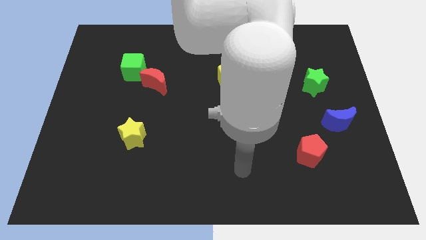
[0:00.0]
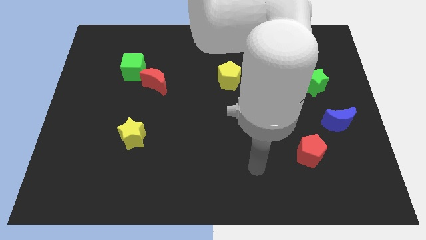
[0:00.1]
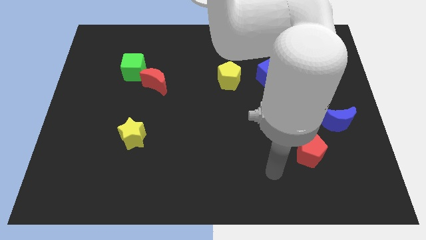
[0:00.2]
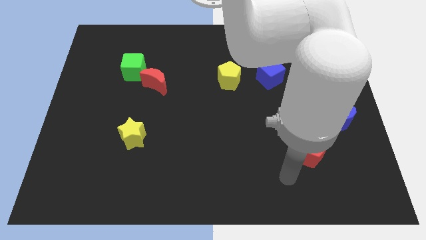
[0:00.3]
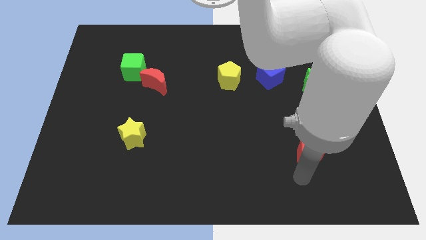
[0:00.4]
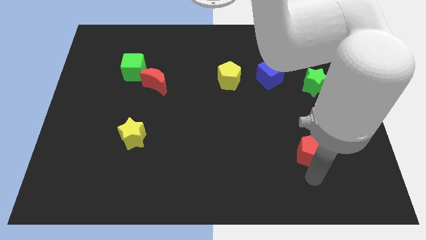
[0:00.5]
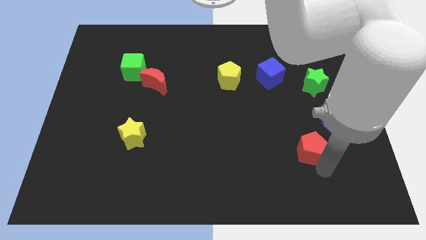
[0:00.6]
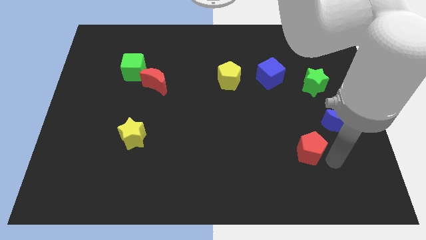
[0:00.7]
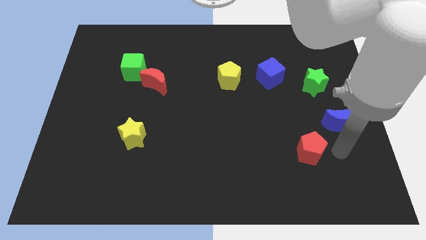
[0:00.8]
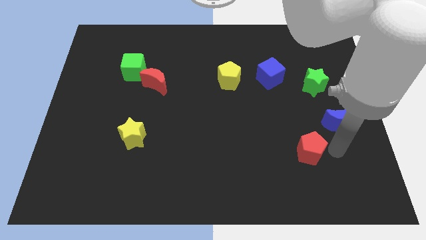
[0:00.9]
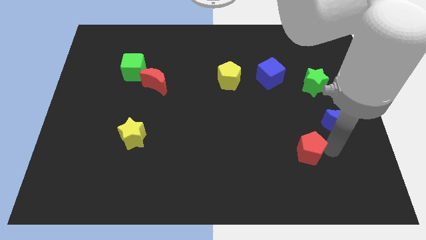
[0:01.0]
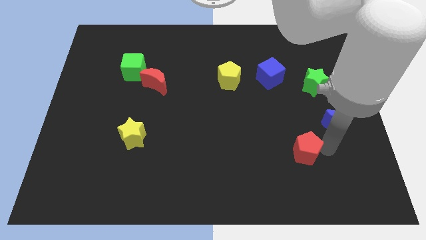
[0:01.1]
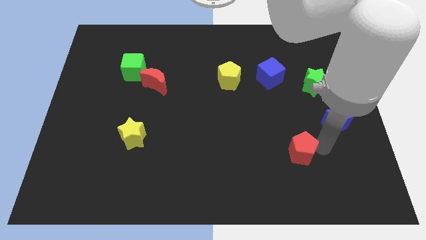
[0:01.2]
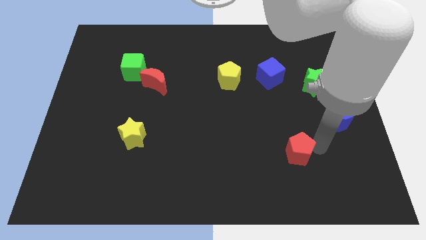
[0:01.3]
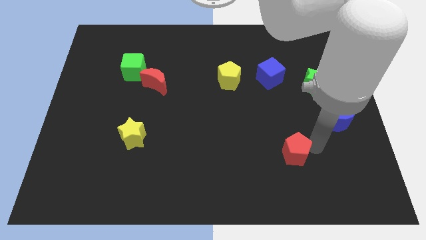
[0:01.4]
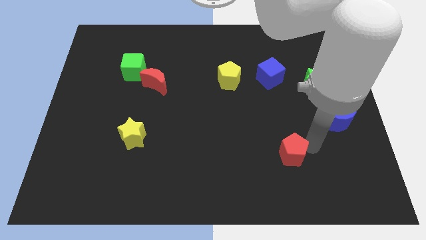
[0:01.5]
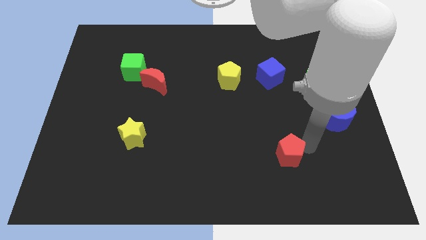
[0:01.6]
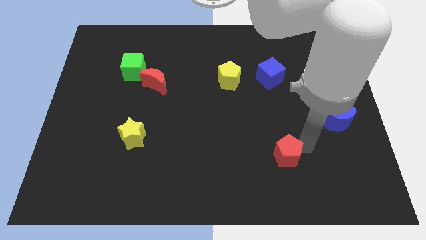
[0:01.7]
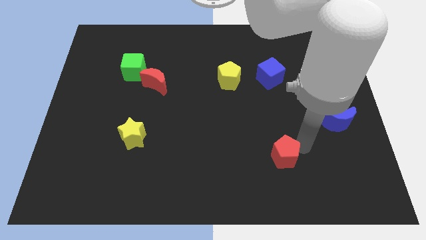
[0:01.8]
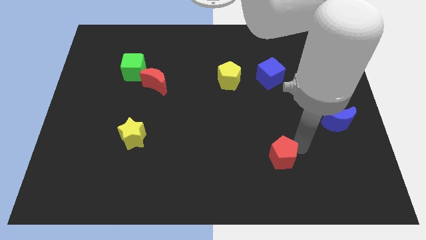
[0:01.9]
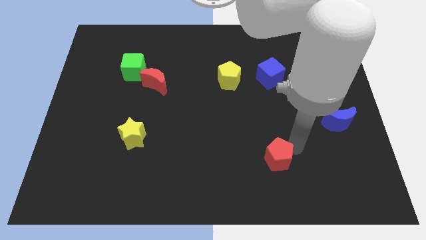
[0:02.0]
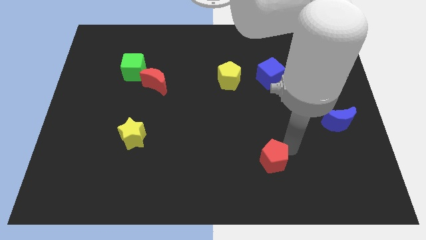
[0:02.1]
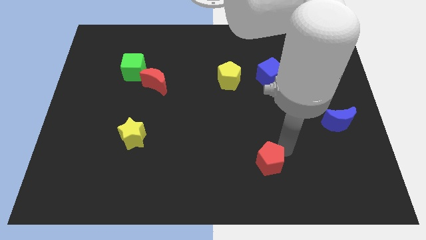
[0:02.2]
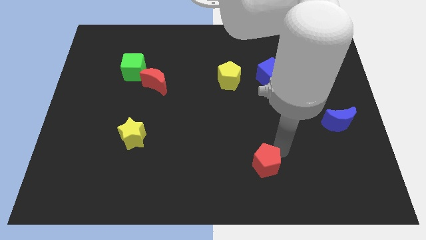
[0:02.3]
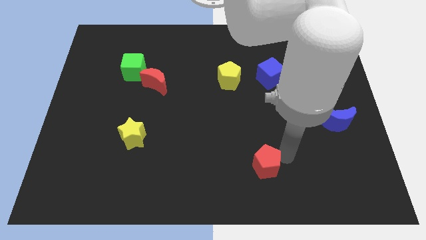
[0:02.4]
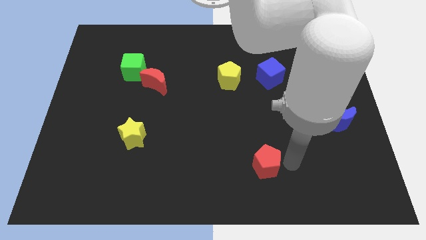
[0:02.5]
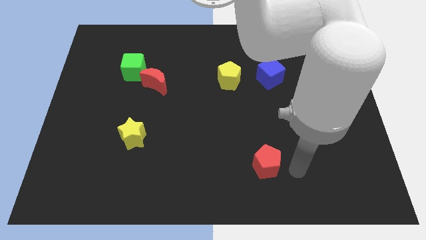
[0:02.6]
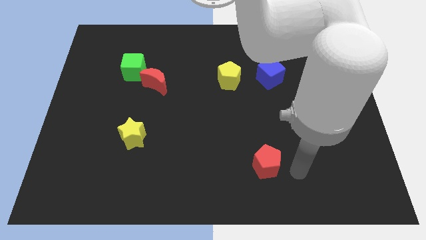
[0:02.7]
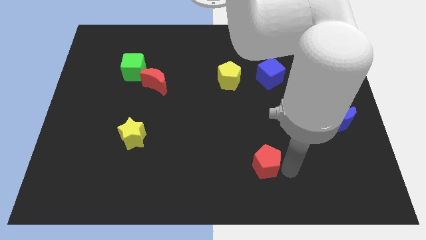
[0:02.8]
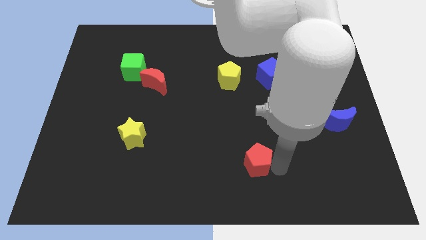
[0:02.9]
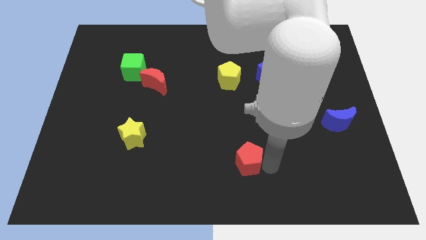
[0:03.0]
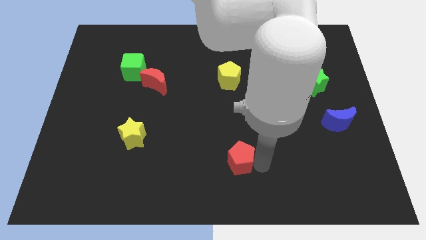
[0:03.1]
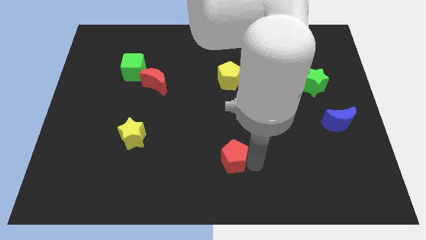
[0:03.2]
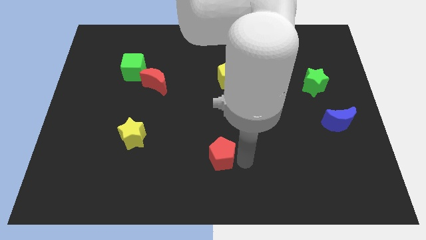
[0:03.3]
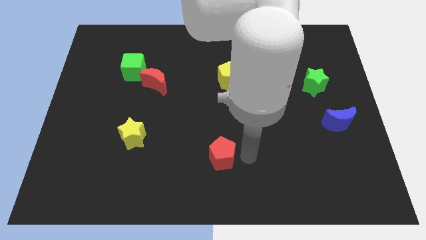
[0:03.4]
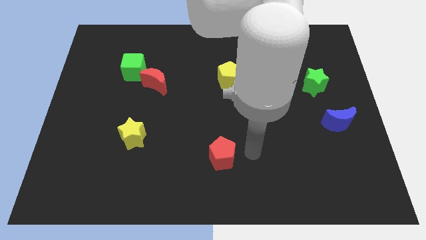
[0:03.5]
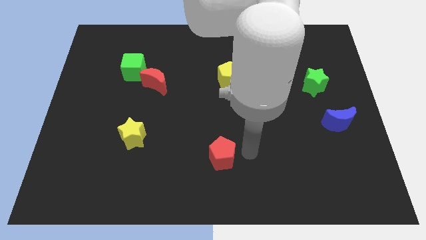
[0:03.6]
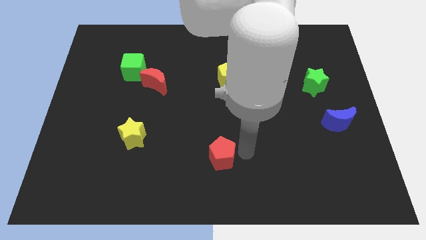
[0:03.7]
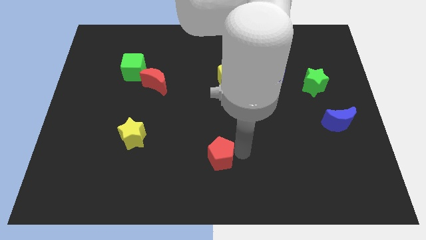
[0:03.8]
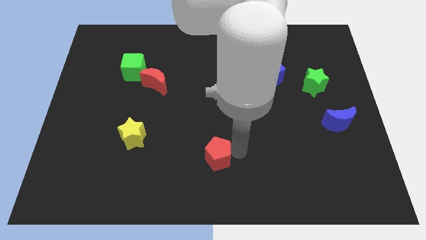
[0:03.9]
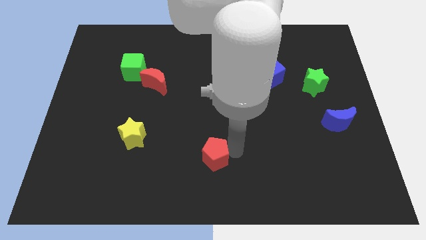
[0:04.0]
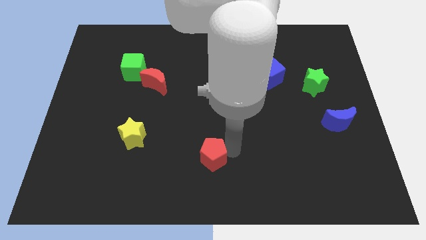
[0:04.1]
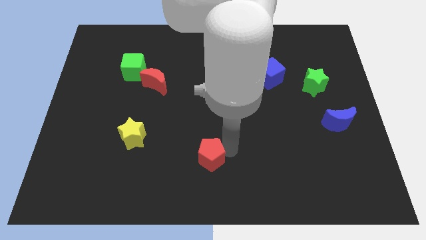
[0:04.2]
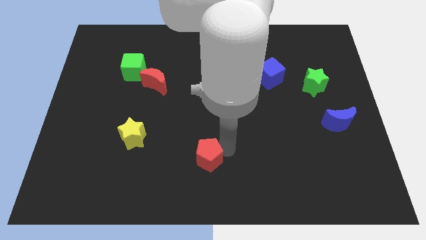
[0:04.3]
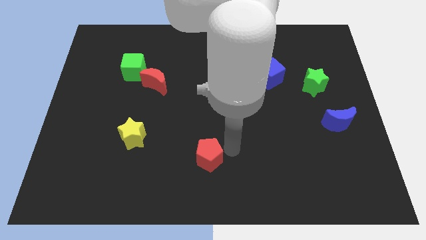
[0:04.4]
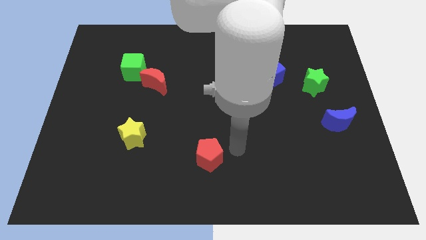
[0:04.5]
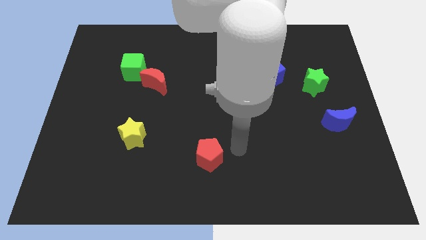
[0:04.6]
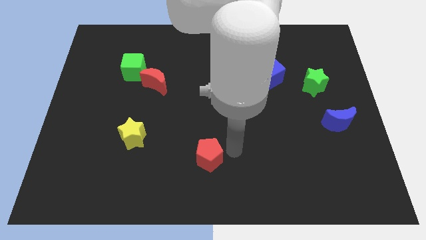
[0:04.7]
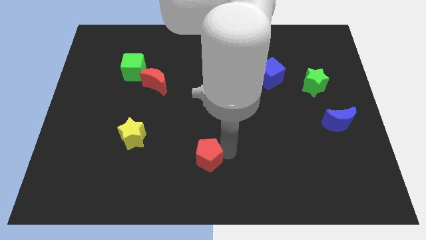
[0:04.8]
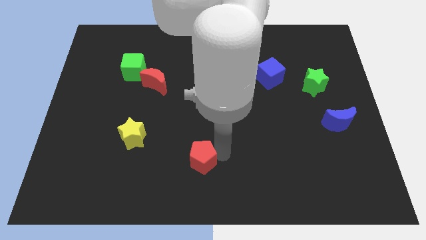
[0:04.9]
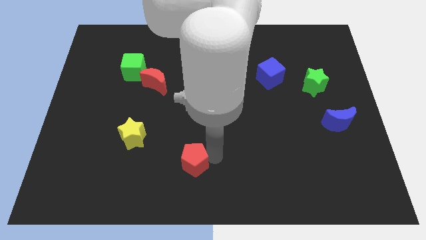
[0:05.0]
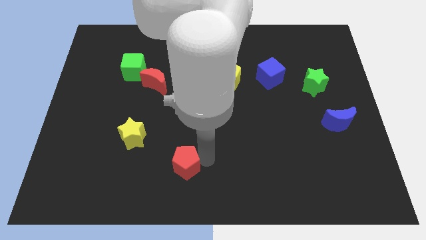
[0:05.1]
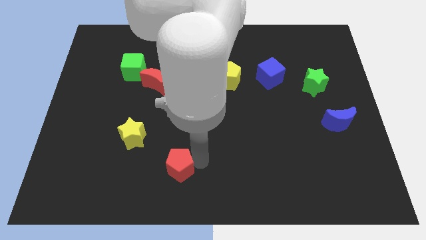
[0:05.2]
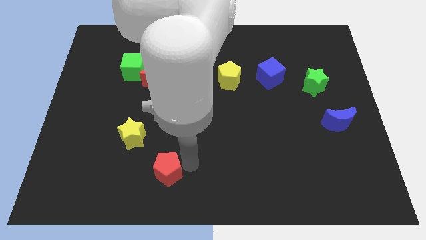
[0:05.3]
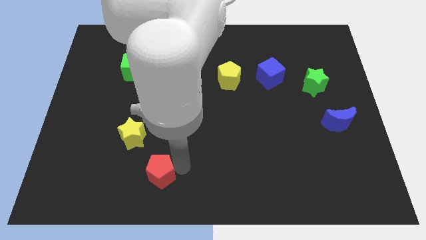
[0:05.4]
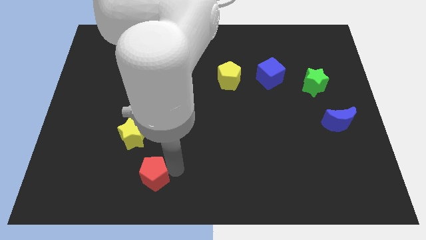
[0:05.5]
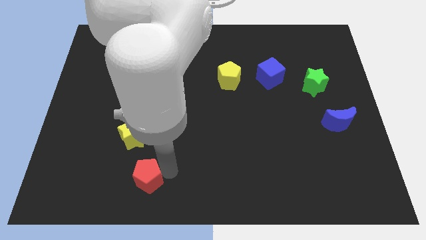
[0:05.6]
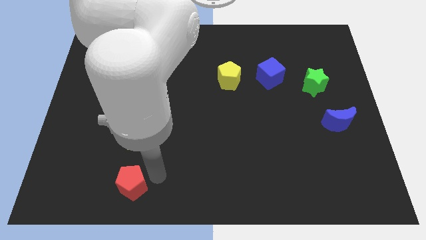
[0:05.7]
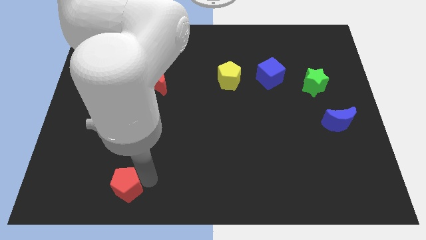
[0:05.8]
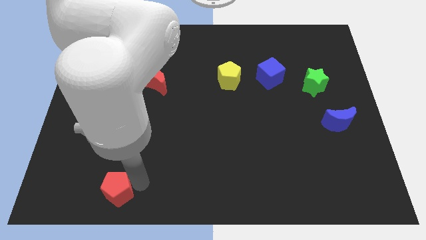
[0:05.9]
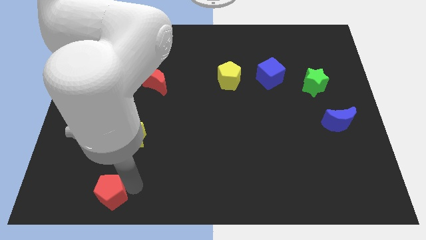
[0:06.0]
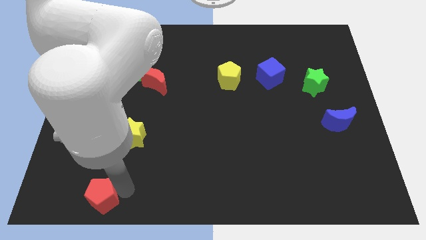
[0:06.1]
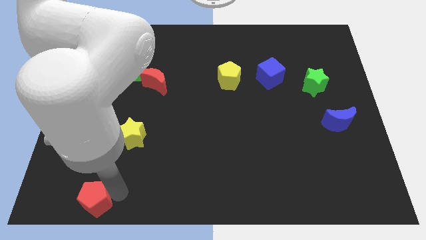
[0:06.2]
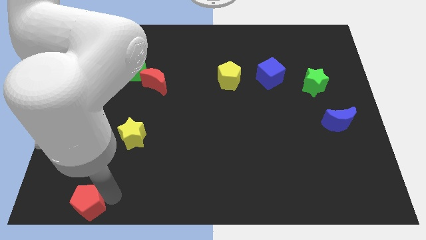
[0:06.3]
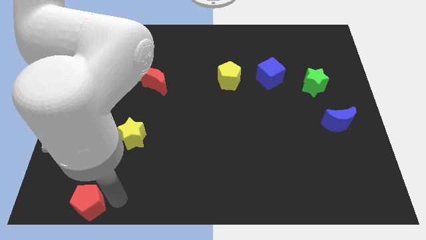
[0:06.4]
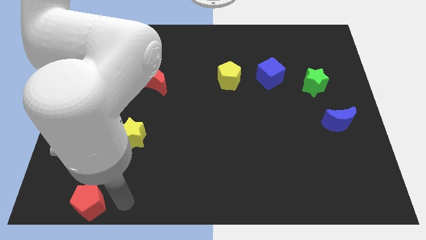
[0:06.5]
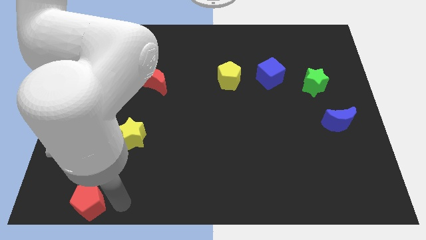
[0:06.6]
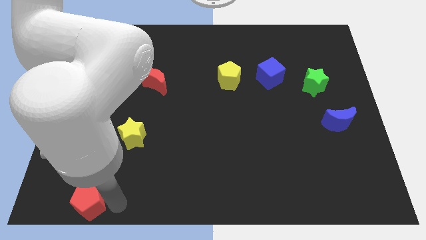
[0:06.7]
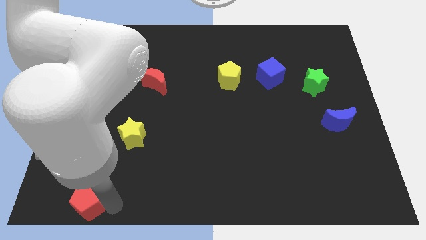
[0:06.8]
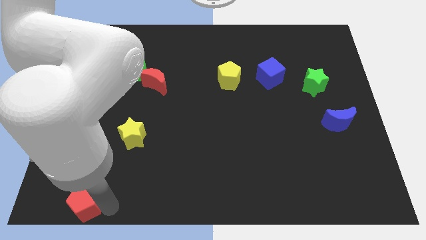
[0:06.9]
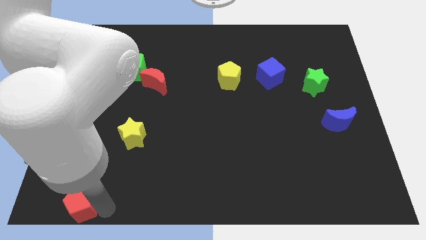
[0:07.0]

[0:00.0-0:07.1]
move the red pentagon to the bottom left
